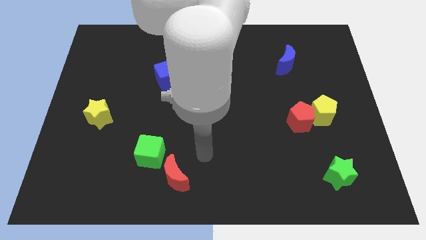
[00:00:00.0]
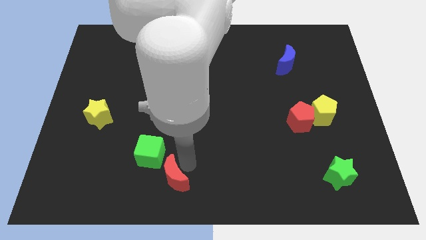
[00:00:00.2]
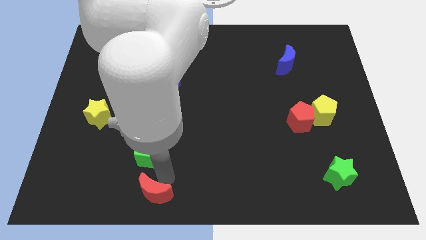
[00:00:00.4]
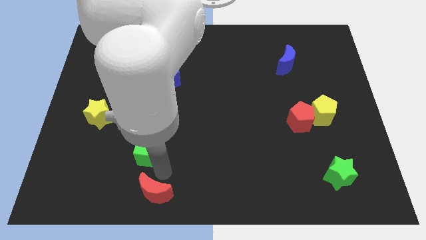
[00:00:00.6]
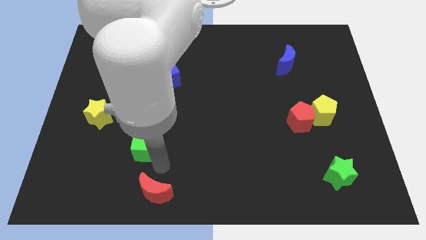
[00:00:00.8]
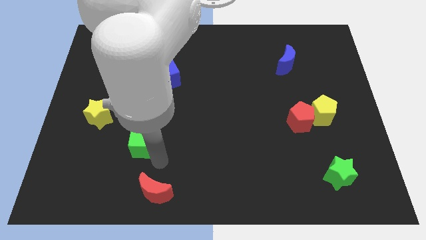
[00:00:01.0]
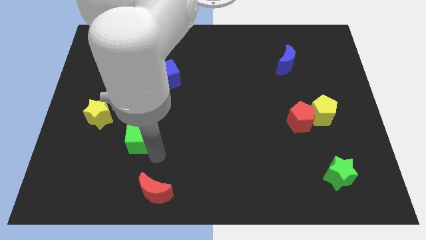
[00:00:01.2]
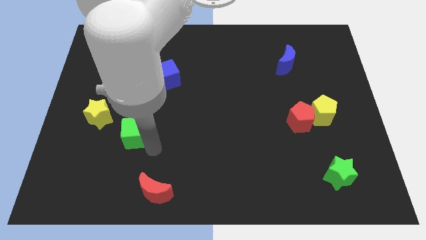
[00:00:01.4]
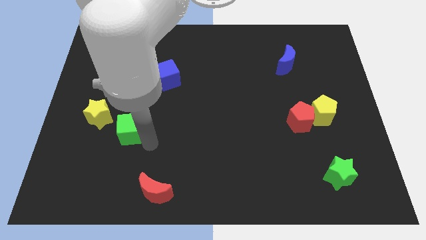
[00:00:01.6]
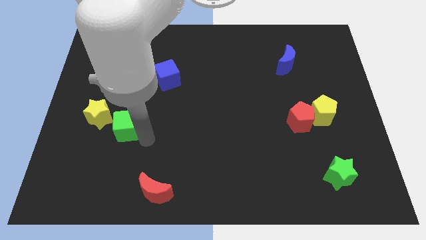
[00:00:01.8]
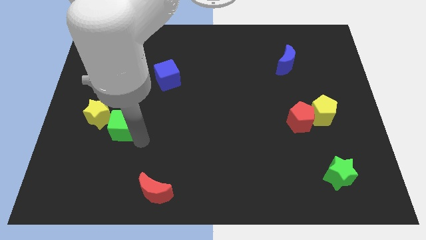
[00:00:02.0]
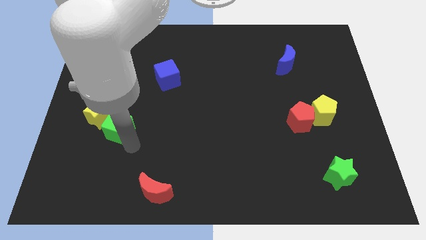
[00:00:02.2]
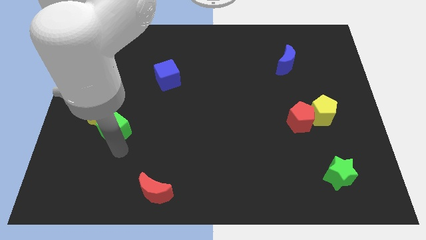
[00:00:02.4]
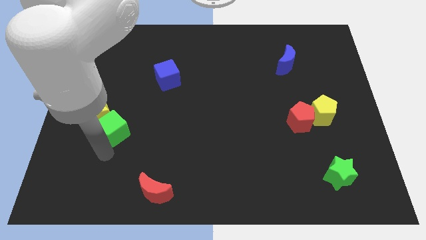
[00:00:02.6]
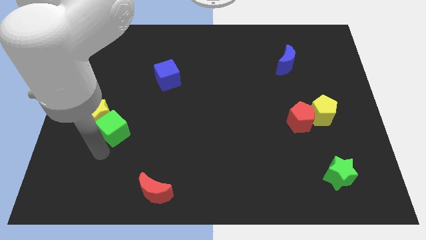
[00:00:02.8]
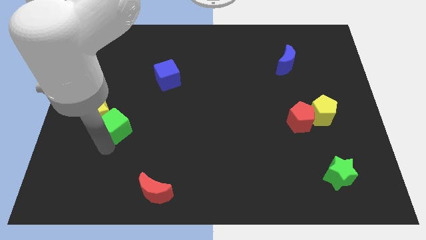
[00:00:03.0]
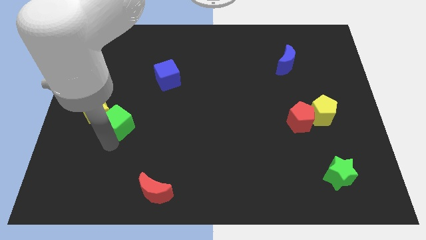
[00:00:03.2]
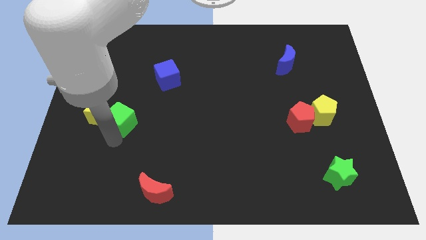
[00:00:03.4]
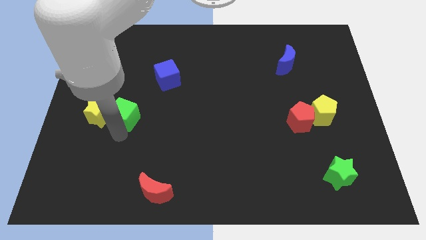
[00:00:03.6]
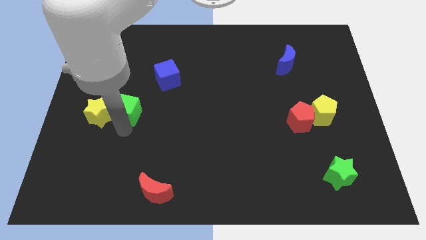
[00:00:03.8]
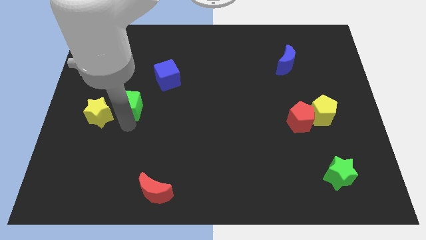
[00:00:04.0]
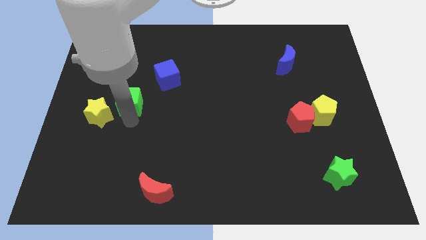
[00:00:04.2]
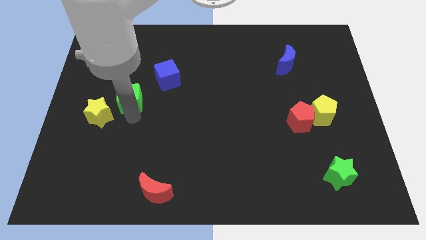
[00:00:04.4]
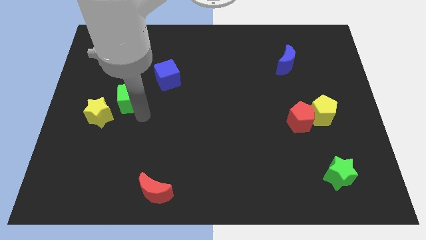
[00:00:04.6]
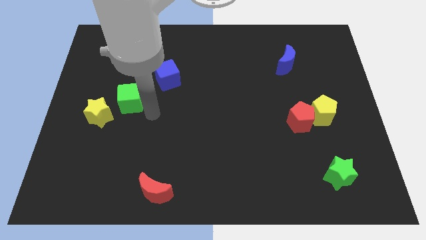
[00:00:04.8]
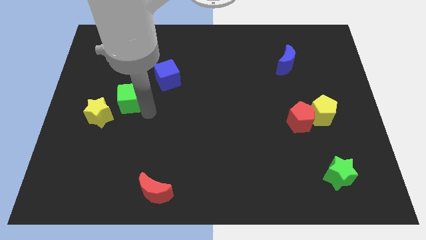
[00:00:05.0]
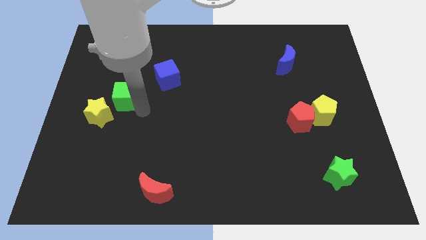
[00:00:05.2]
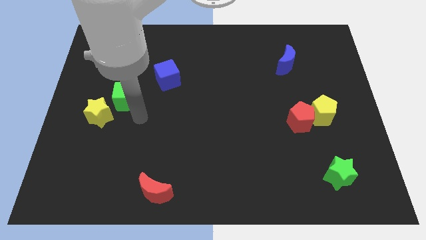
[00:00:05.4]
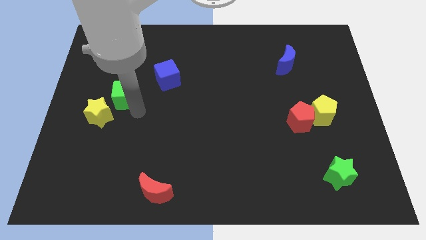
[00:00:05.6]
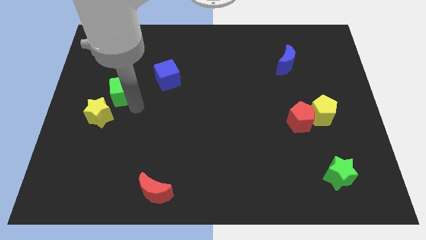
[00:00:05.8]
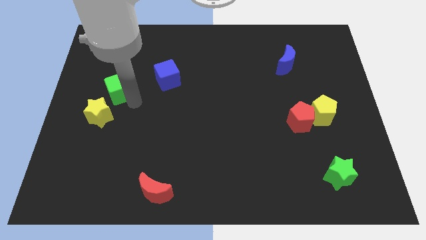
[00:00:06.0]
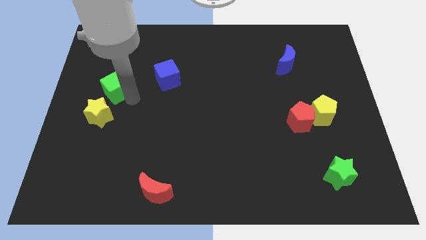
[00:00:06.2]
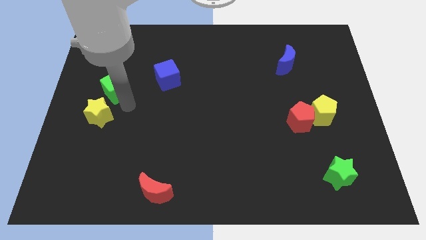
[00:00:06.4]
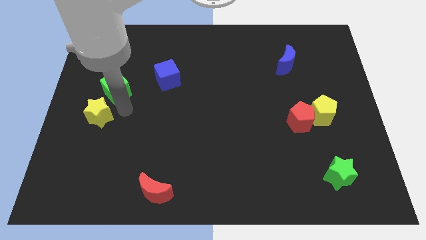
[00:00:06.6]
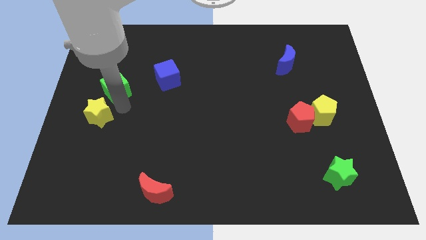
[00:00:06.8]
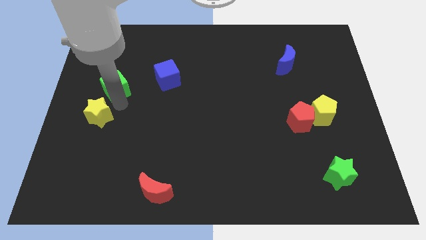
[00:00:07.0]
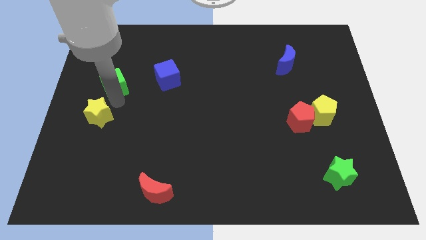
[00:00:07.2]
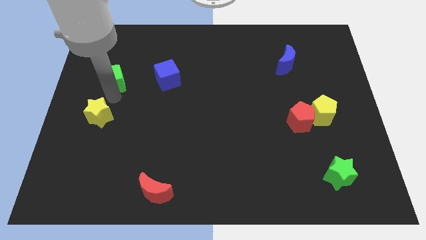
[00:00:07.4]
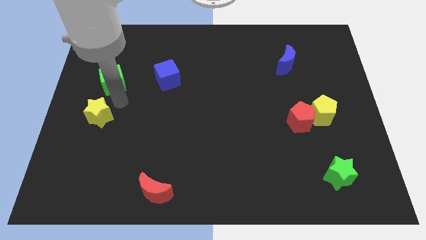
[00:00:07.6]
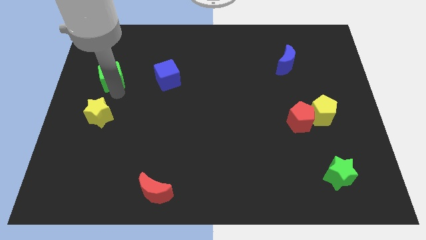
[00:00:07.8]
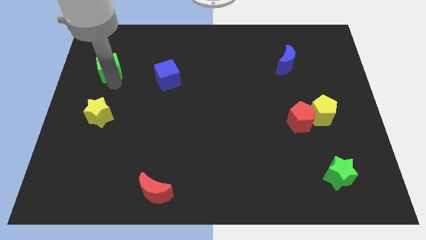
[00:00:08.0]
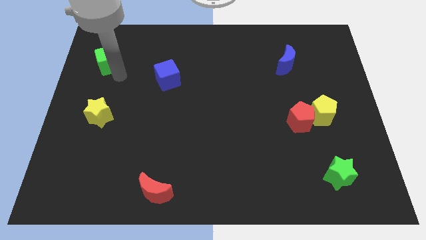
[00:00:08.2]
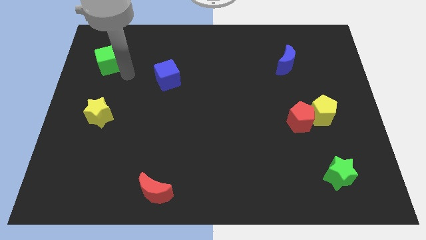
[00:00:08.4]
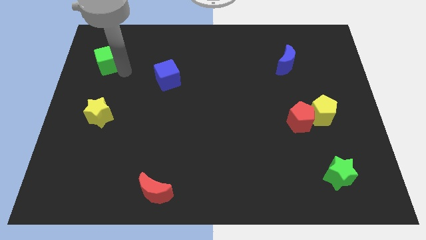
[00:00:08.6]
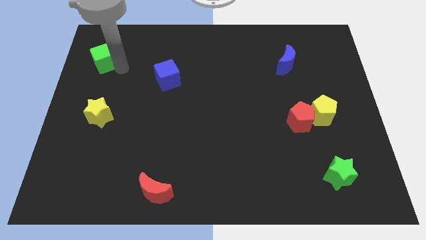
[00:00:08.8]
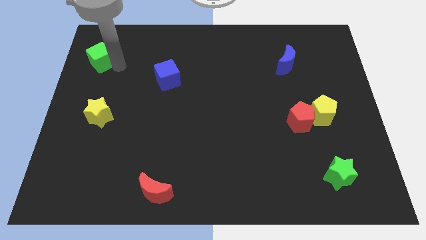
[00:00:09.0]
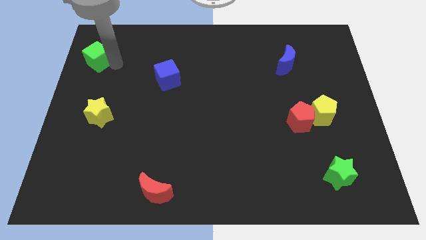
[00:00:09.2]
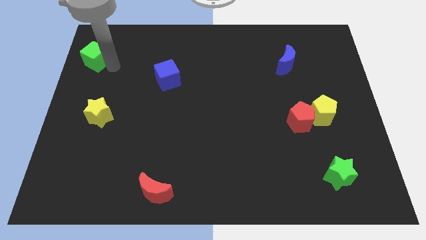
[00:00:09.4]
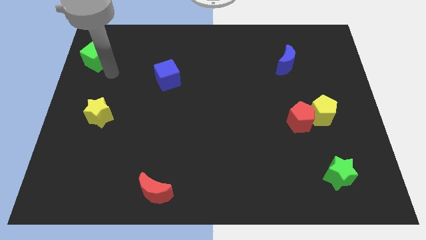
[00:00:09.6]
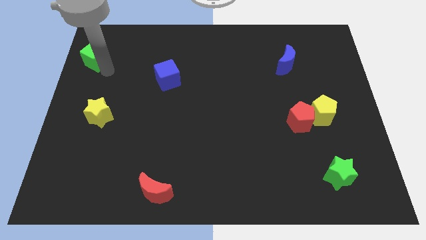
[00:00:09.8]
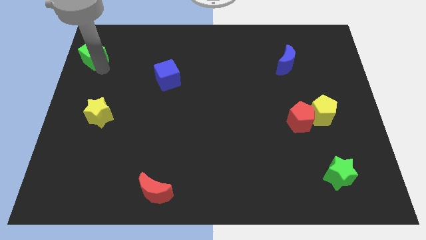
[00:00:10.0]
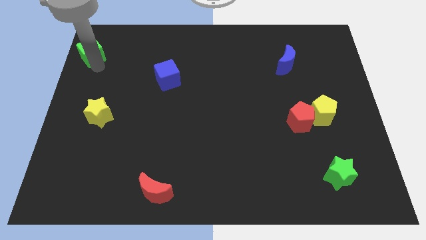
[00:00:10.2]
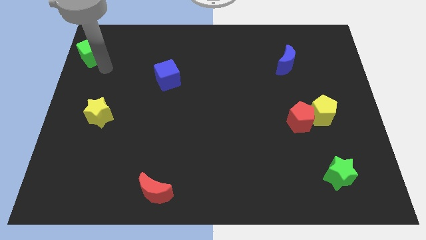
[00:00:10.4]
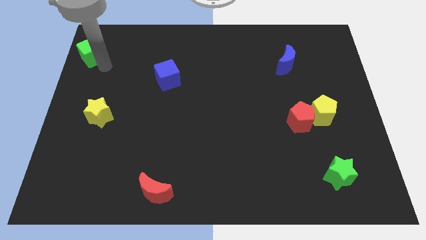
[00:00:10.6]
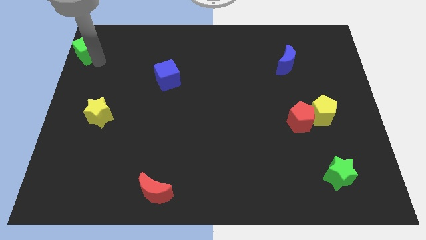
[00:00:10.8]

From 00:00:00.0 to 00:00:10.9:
put the green cube to the top left corner

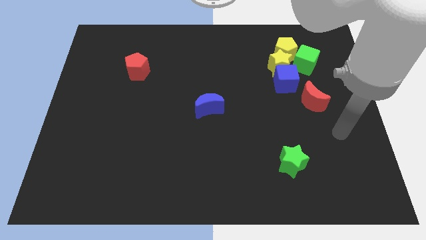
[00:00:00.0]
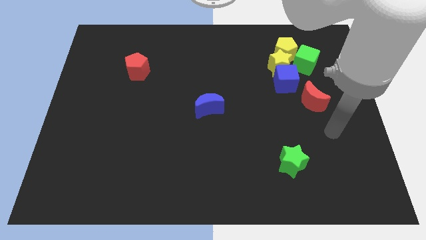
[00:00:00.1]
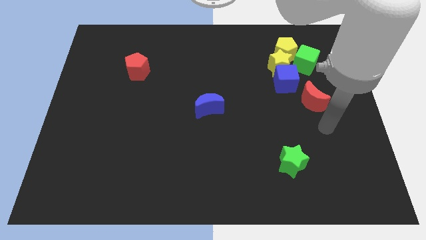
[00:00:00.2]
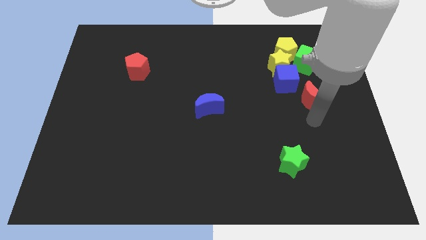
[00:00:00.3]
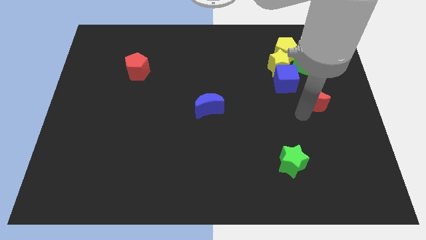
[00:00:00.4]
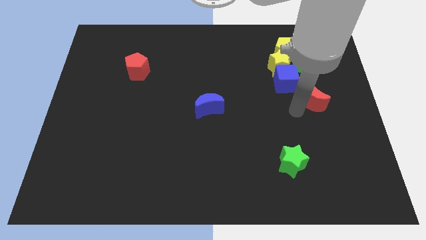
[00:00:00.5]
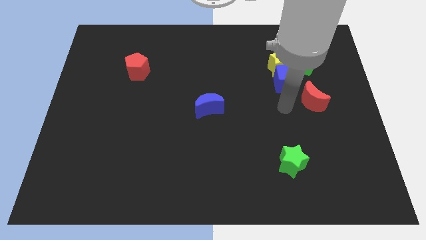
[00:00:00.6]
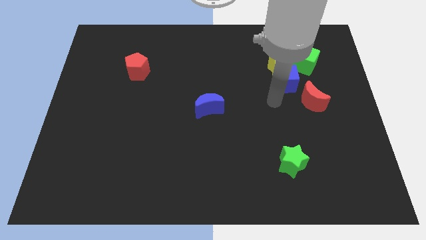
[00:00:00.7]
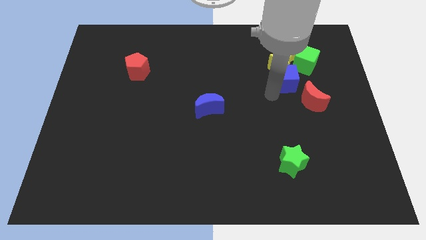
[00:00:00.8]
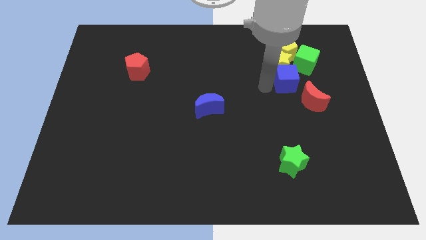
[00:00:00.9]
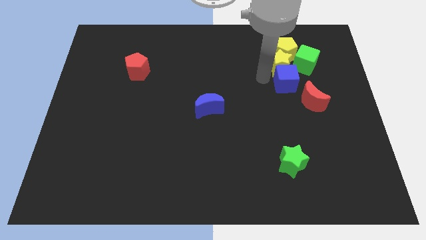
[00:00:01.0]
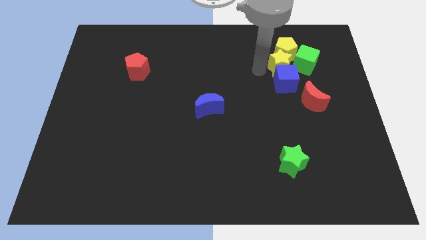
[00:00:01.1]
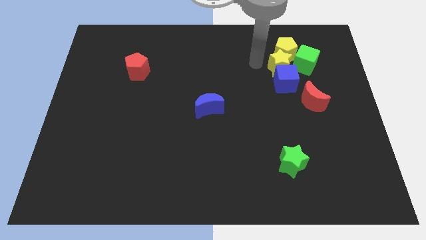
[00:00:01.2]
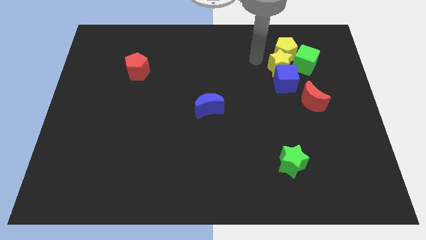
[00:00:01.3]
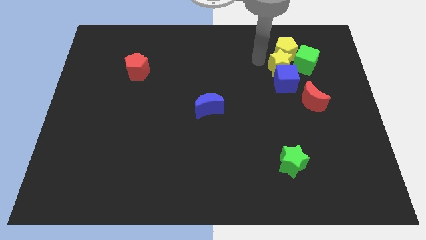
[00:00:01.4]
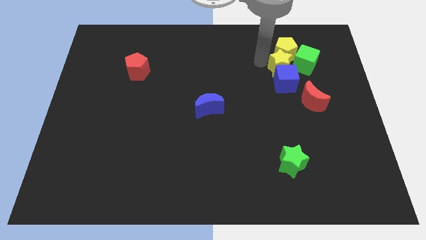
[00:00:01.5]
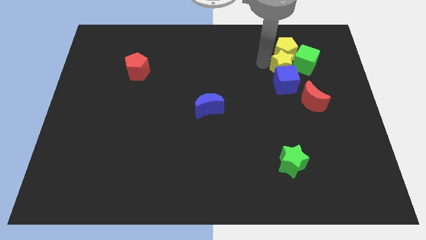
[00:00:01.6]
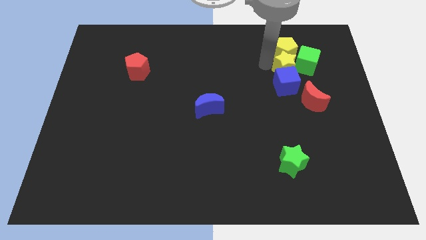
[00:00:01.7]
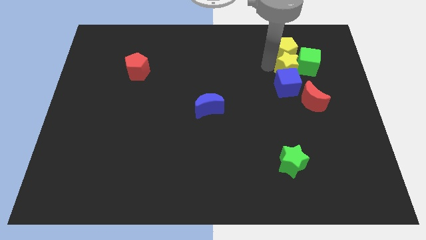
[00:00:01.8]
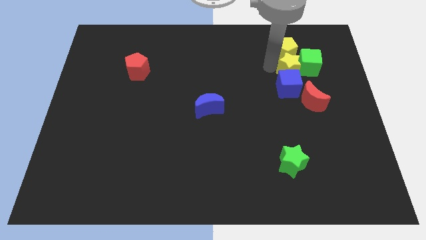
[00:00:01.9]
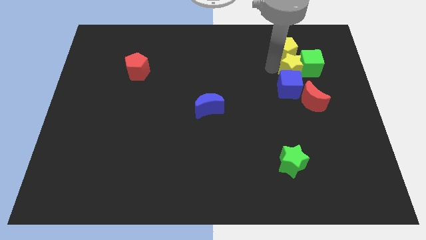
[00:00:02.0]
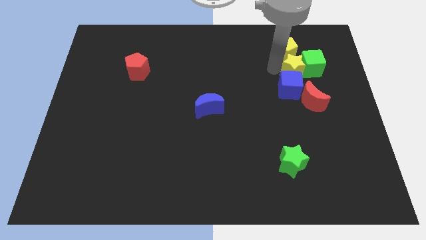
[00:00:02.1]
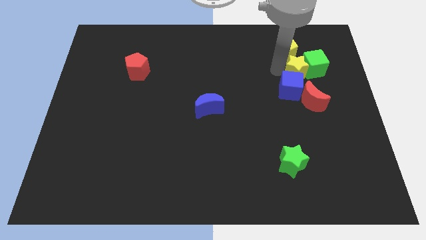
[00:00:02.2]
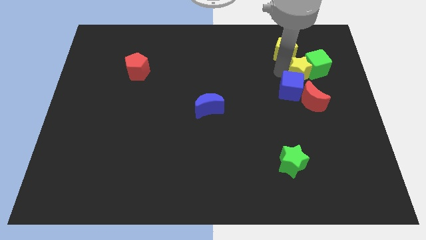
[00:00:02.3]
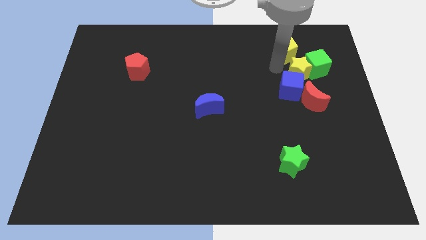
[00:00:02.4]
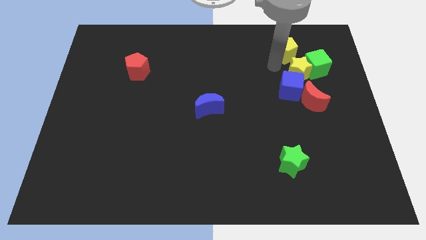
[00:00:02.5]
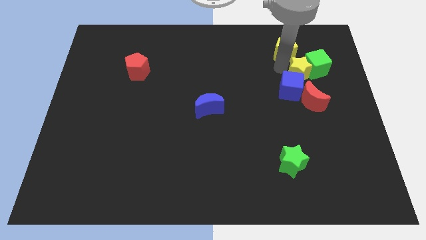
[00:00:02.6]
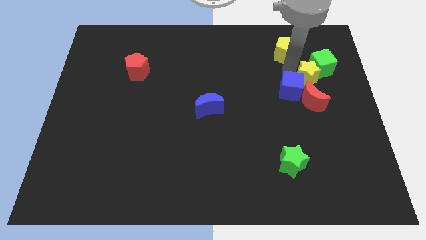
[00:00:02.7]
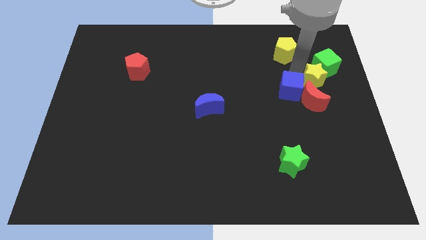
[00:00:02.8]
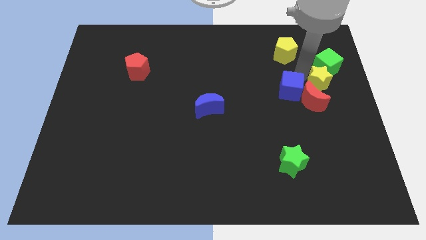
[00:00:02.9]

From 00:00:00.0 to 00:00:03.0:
slide the yellow star to the right side

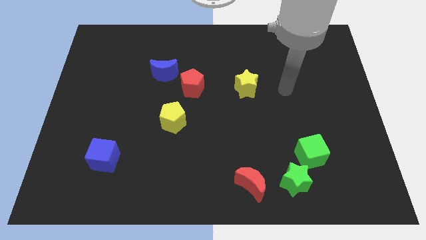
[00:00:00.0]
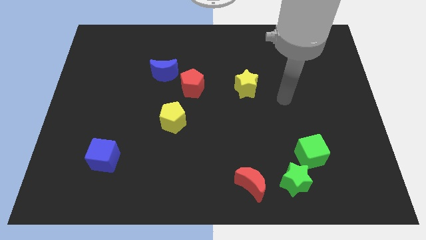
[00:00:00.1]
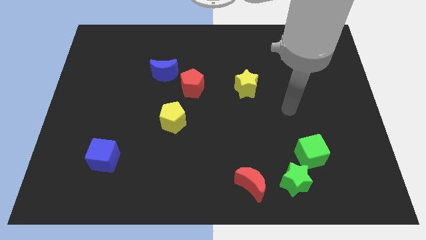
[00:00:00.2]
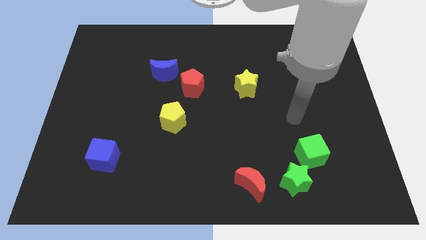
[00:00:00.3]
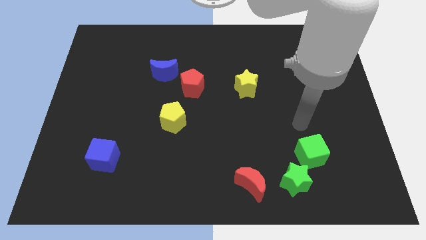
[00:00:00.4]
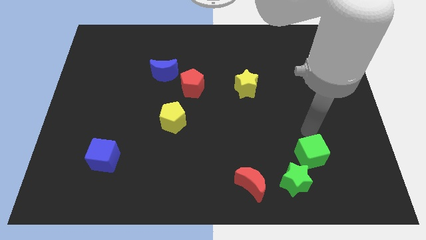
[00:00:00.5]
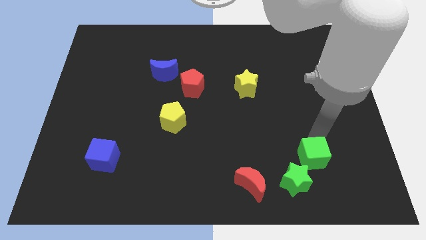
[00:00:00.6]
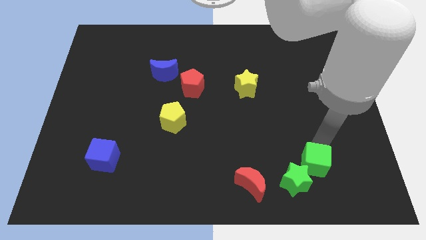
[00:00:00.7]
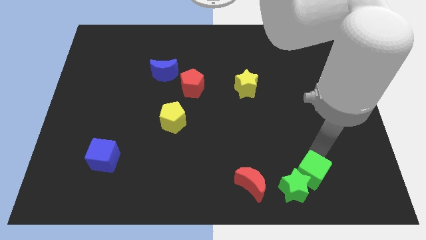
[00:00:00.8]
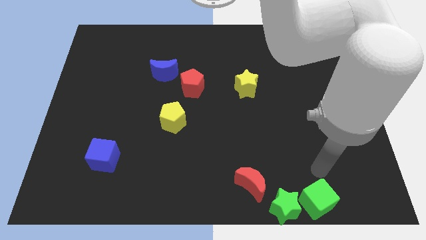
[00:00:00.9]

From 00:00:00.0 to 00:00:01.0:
push the green star to the bottom
